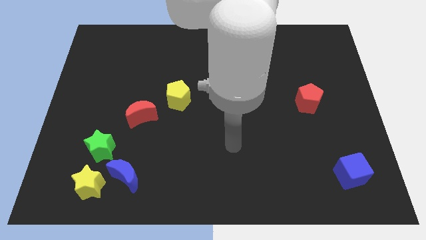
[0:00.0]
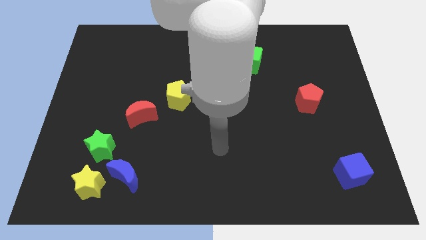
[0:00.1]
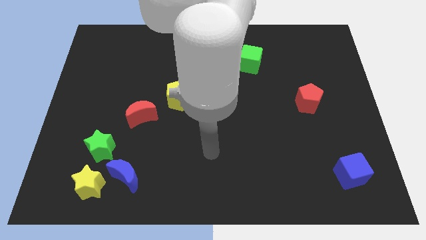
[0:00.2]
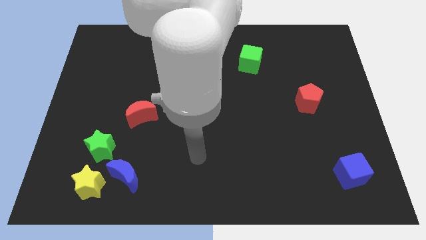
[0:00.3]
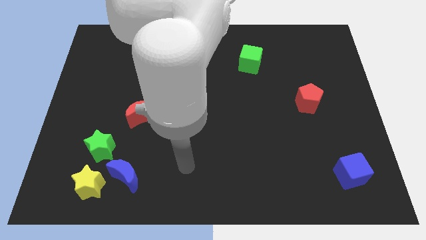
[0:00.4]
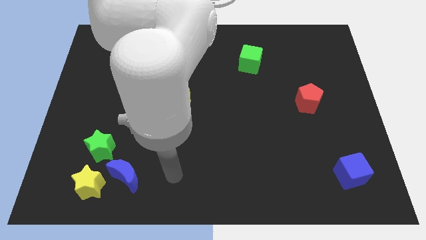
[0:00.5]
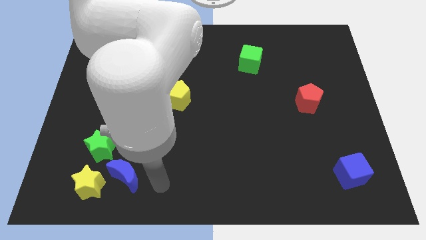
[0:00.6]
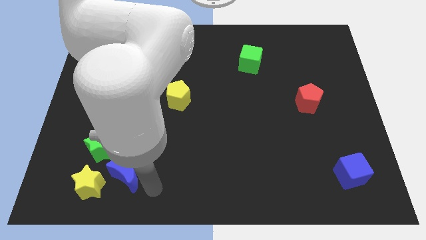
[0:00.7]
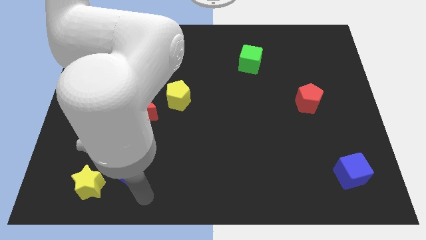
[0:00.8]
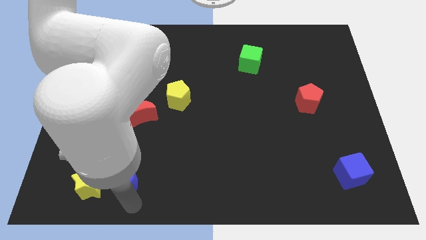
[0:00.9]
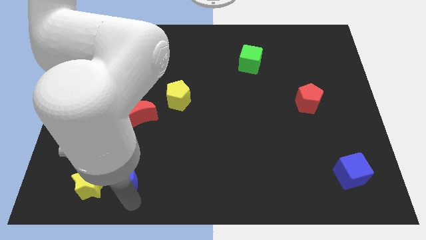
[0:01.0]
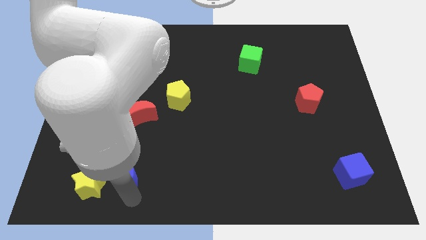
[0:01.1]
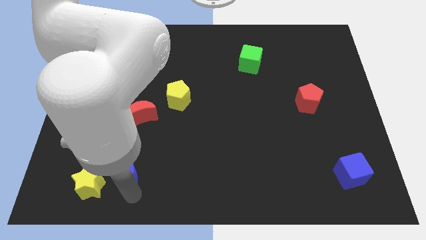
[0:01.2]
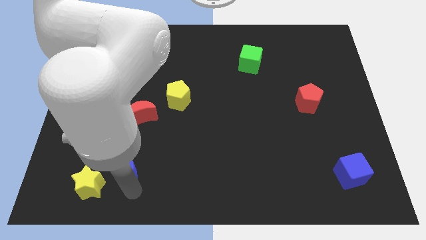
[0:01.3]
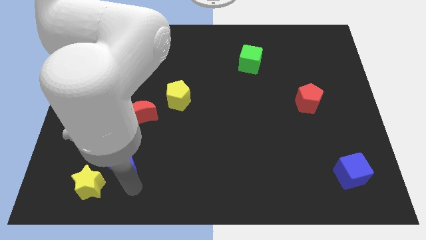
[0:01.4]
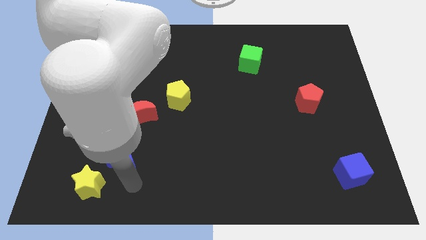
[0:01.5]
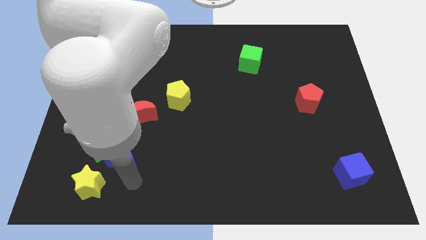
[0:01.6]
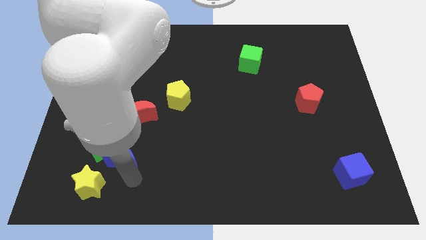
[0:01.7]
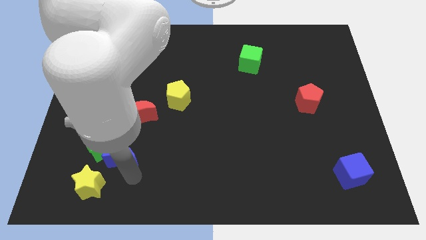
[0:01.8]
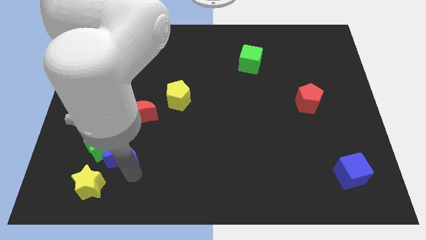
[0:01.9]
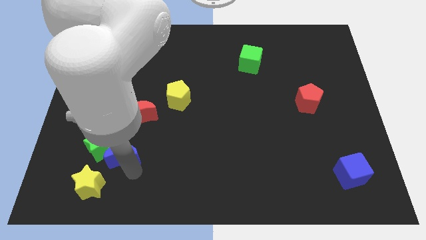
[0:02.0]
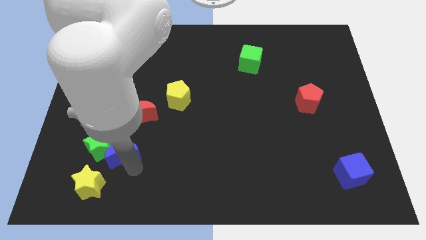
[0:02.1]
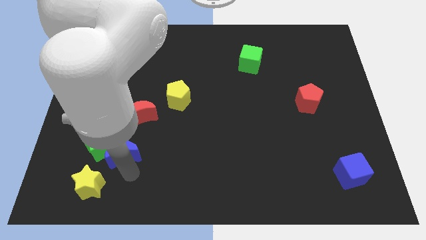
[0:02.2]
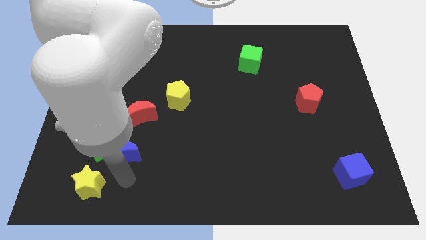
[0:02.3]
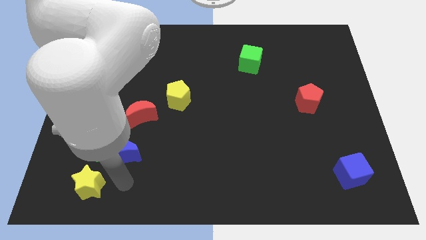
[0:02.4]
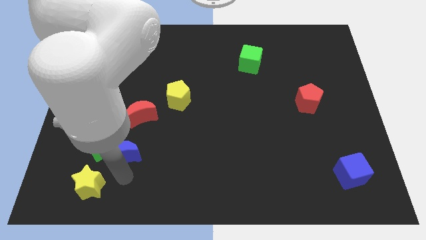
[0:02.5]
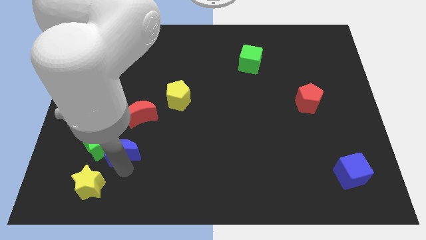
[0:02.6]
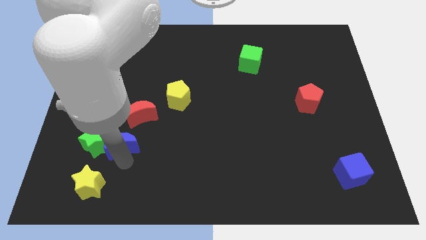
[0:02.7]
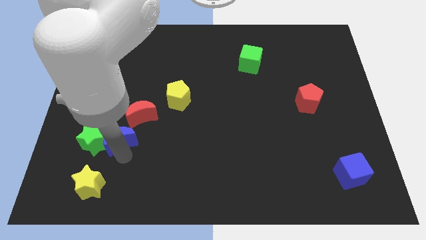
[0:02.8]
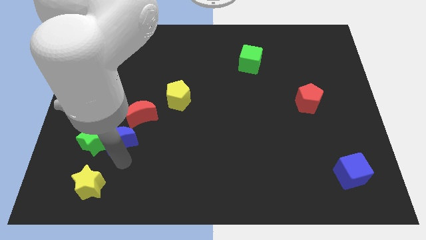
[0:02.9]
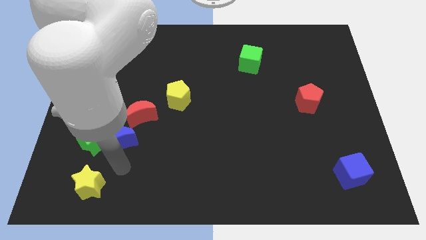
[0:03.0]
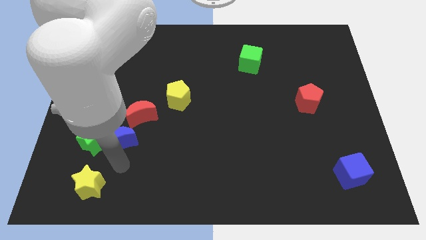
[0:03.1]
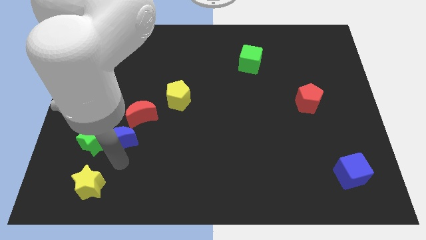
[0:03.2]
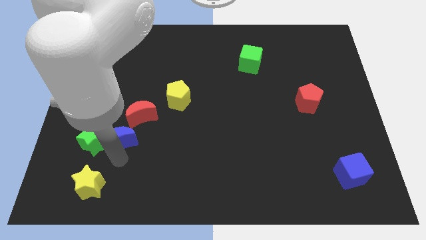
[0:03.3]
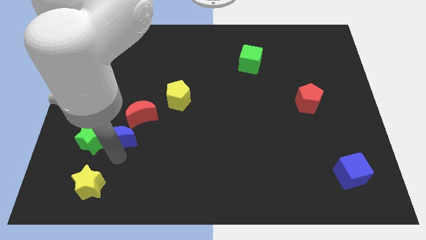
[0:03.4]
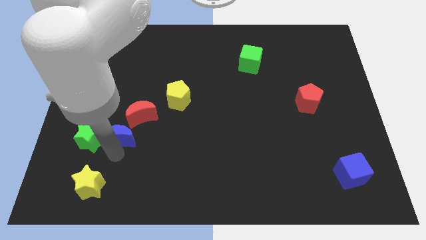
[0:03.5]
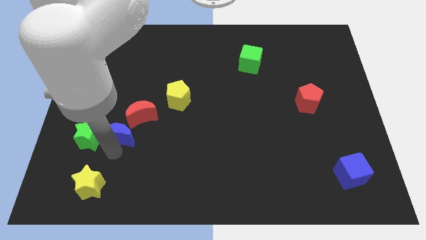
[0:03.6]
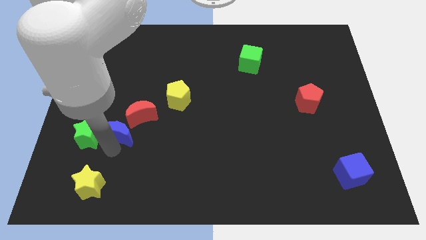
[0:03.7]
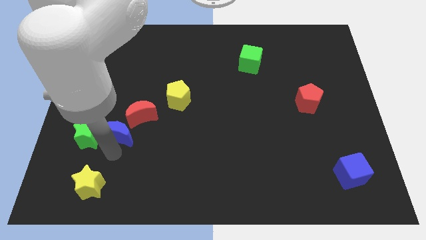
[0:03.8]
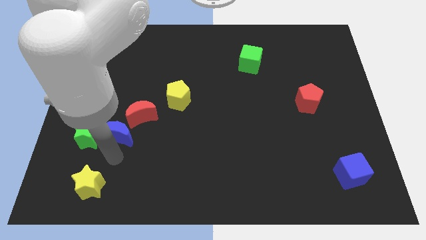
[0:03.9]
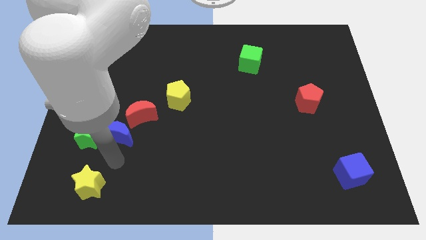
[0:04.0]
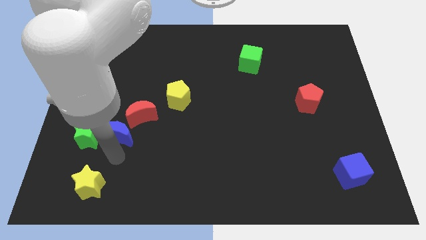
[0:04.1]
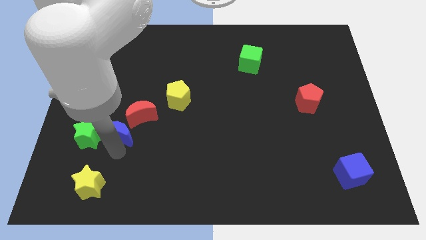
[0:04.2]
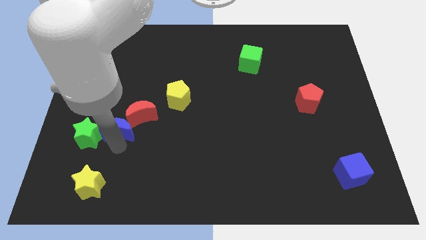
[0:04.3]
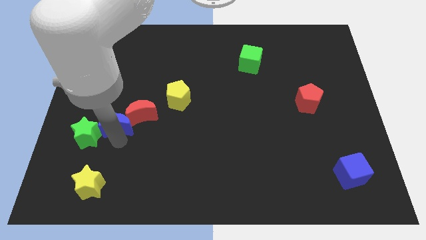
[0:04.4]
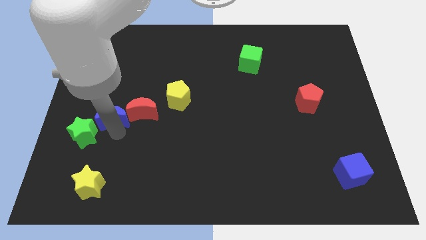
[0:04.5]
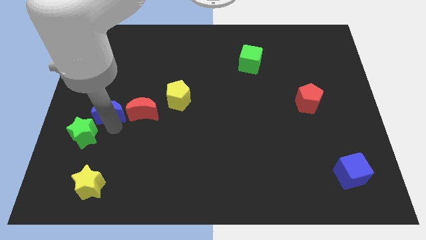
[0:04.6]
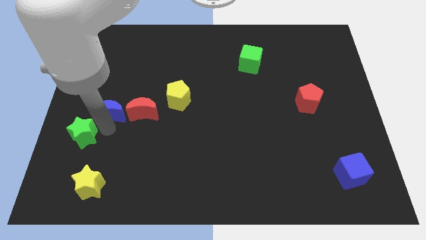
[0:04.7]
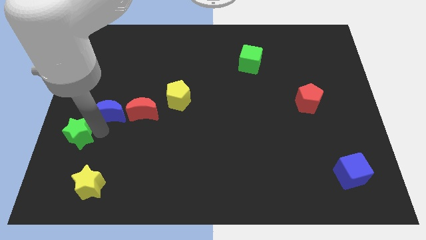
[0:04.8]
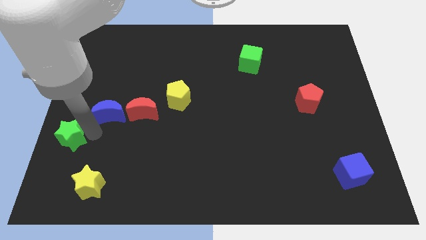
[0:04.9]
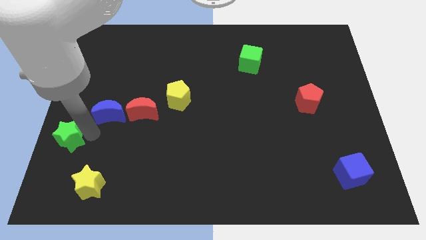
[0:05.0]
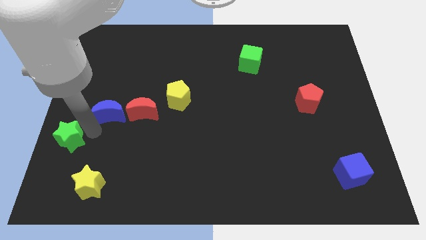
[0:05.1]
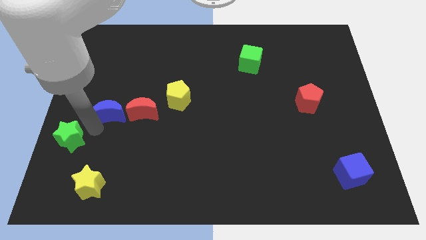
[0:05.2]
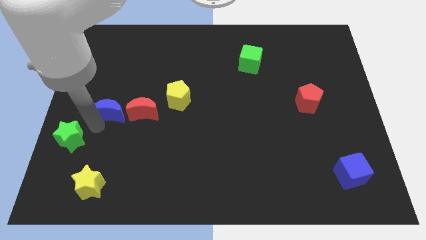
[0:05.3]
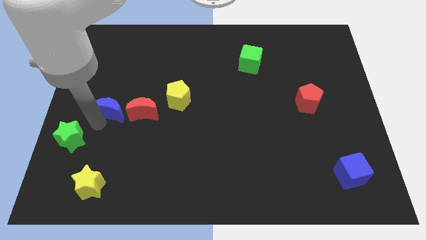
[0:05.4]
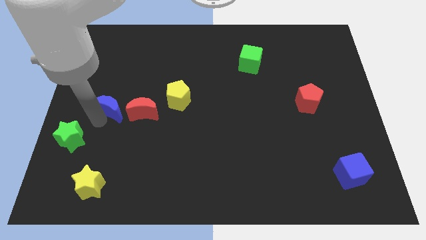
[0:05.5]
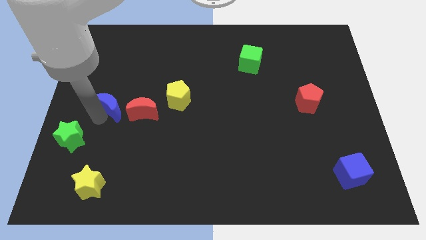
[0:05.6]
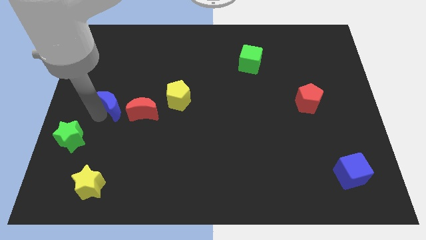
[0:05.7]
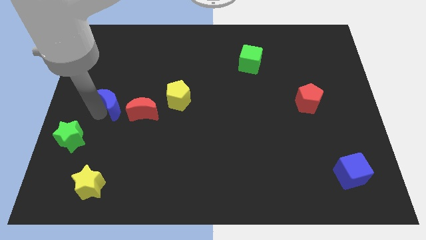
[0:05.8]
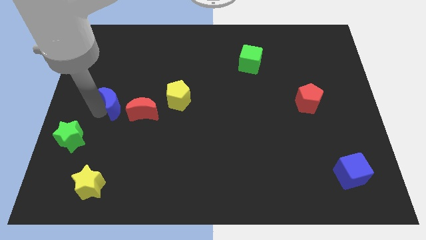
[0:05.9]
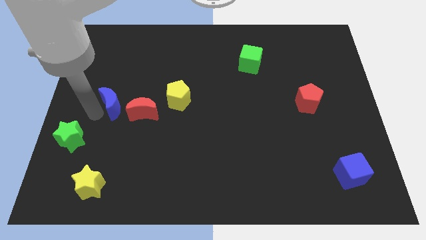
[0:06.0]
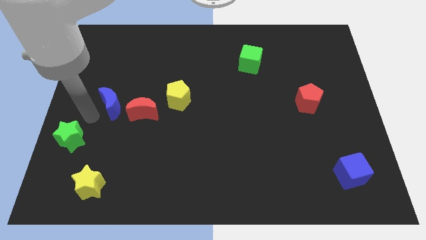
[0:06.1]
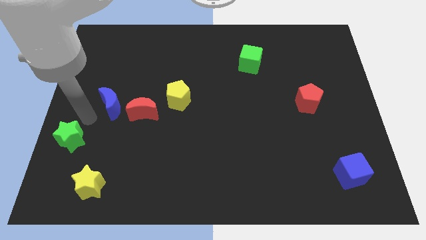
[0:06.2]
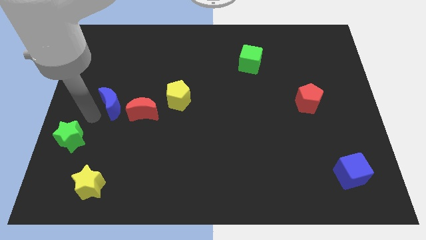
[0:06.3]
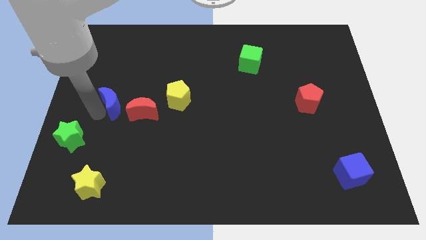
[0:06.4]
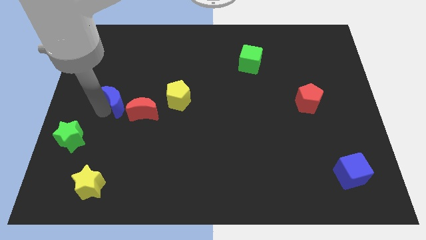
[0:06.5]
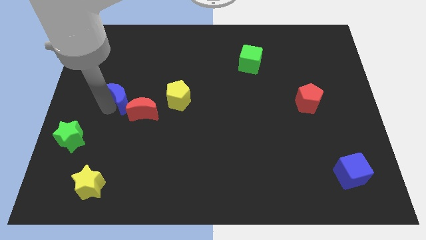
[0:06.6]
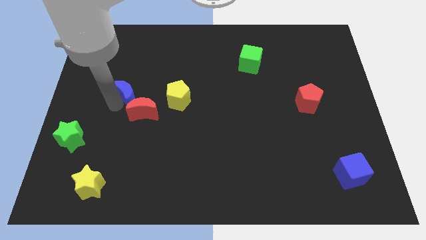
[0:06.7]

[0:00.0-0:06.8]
slide the blue moon up

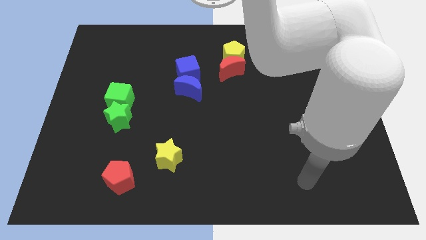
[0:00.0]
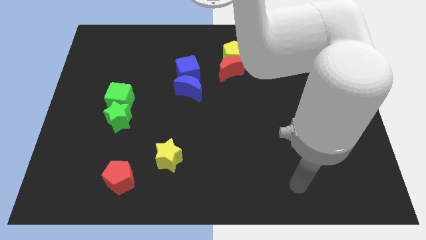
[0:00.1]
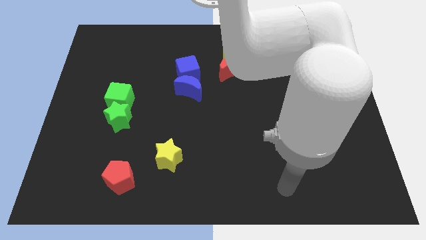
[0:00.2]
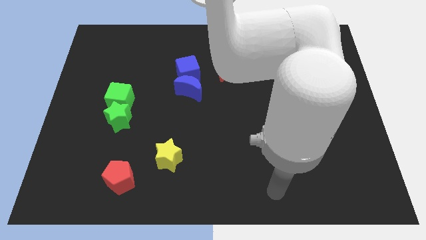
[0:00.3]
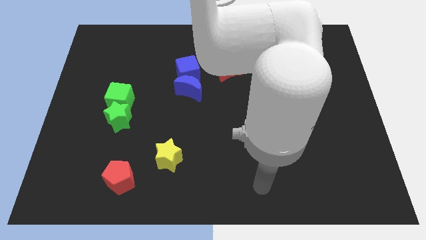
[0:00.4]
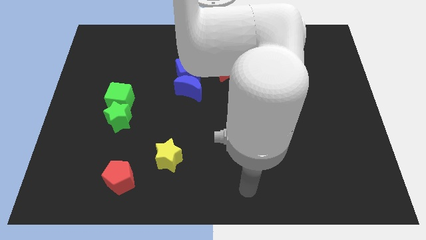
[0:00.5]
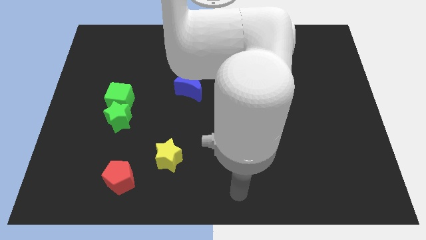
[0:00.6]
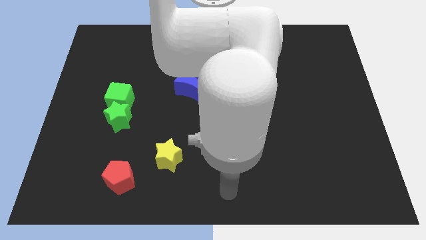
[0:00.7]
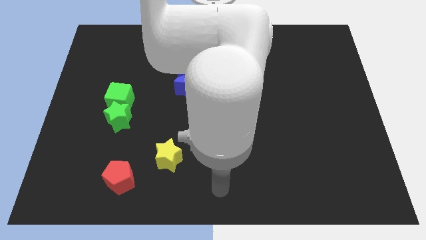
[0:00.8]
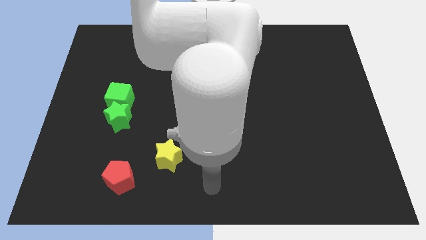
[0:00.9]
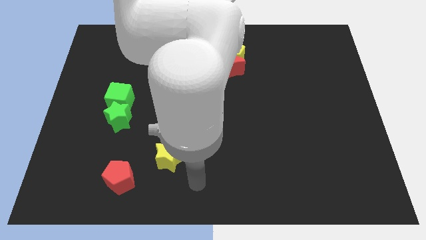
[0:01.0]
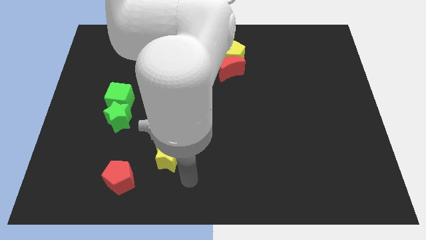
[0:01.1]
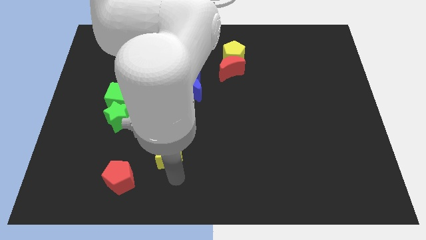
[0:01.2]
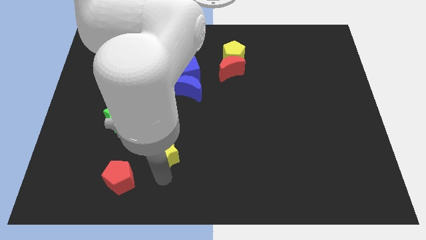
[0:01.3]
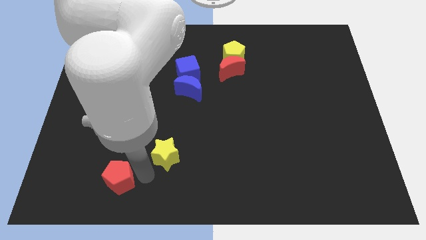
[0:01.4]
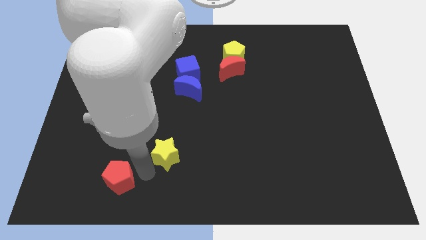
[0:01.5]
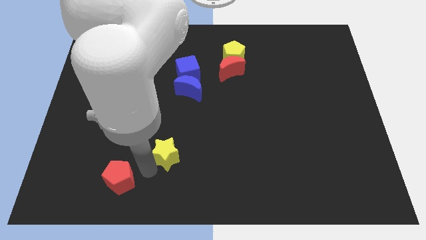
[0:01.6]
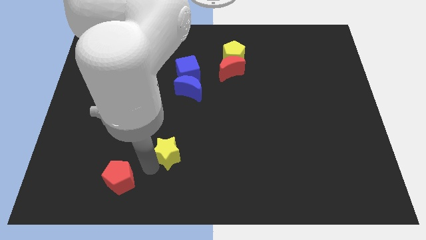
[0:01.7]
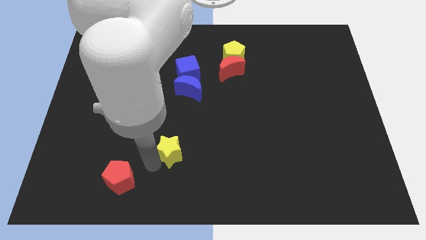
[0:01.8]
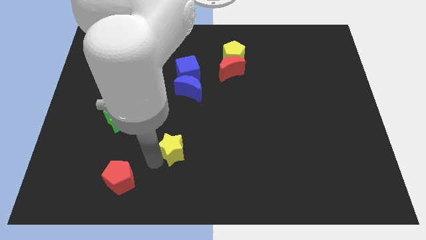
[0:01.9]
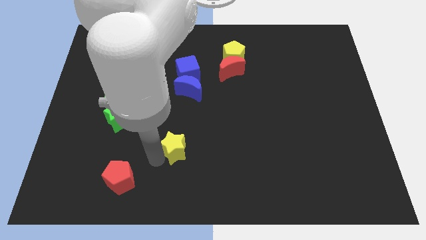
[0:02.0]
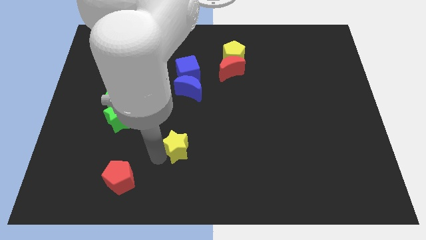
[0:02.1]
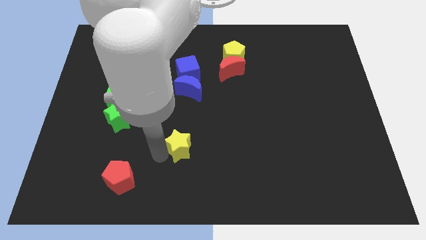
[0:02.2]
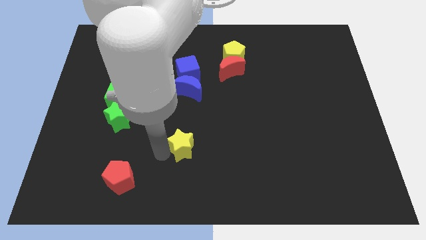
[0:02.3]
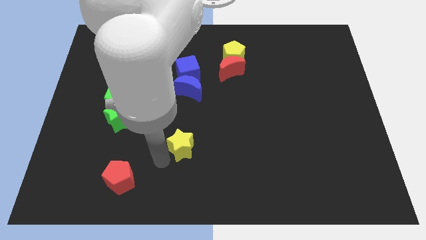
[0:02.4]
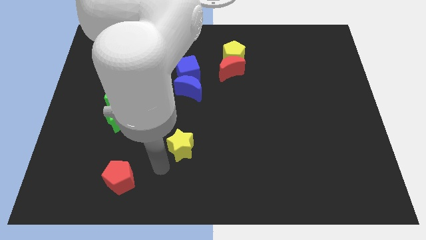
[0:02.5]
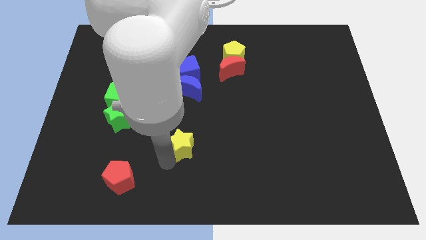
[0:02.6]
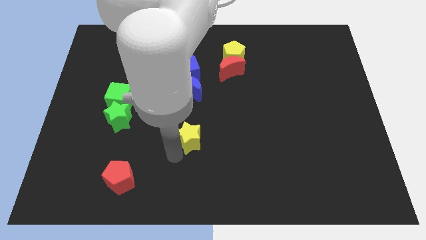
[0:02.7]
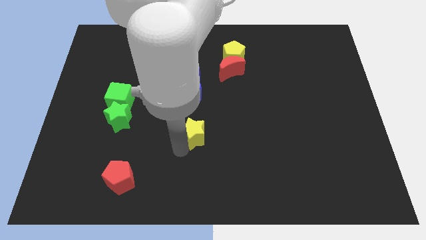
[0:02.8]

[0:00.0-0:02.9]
move the yellow star upwards and right a bit
